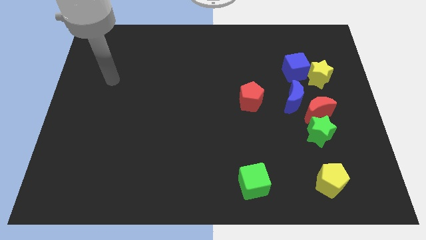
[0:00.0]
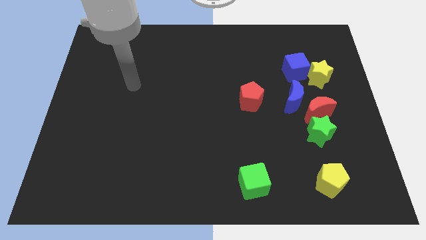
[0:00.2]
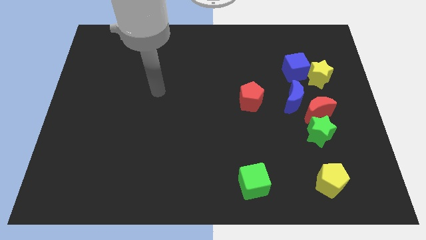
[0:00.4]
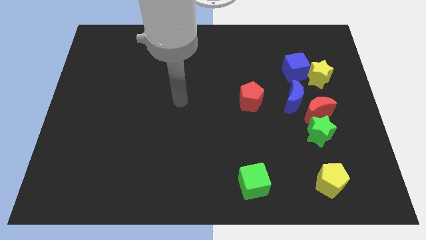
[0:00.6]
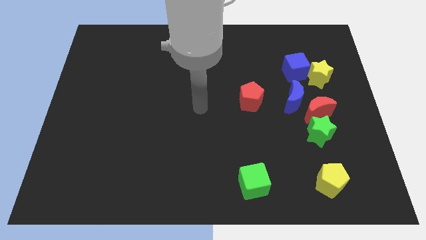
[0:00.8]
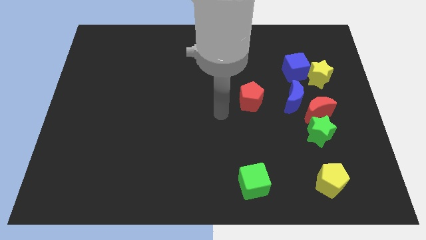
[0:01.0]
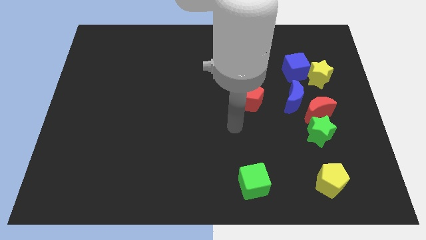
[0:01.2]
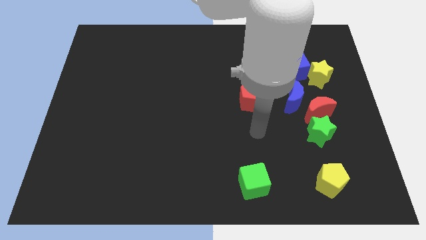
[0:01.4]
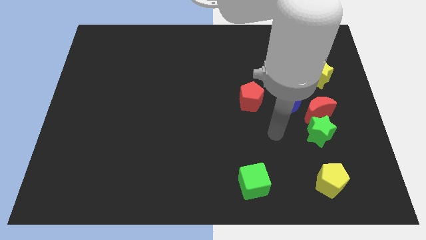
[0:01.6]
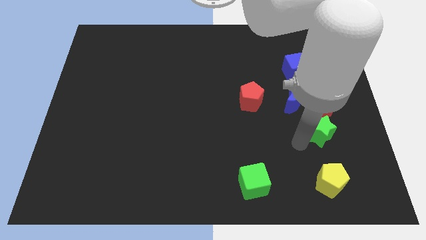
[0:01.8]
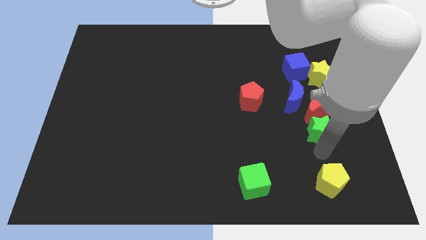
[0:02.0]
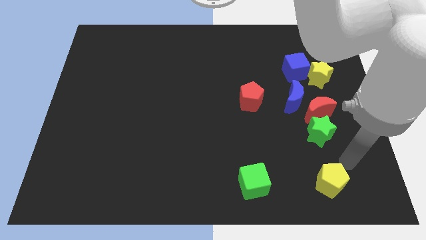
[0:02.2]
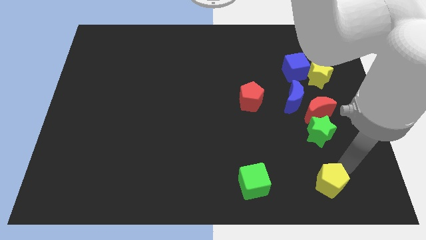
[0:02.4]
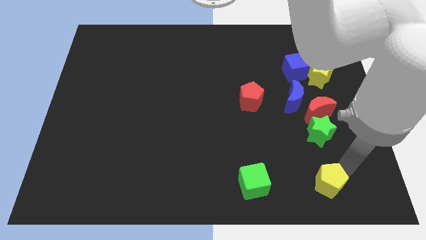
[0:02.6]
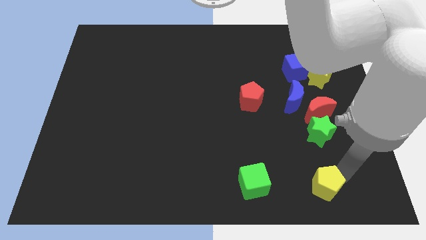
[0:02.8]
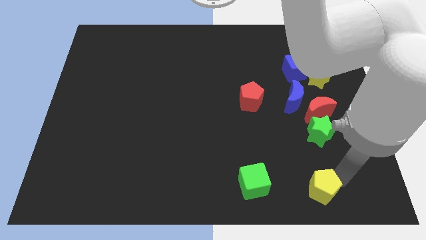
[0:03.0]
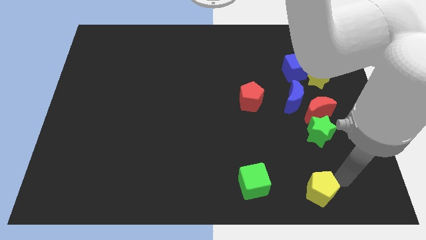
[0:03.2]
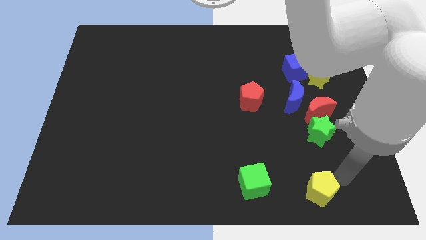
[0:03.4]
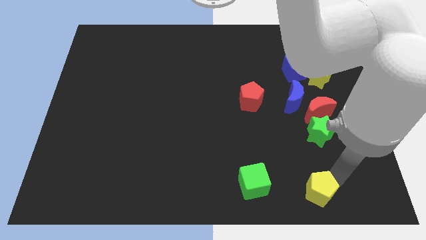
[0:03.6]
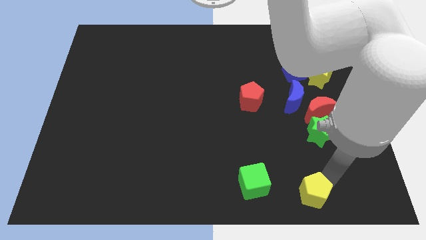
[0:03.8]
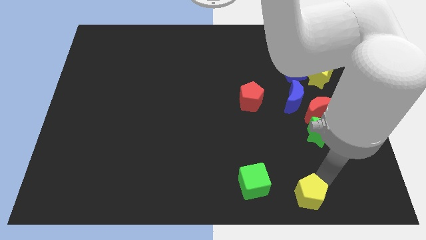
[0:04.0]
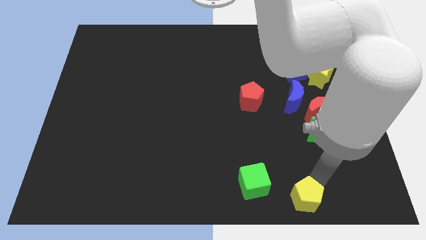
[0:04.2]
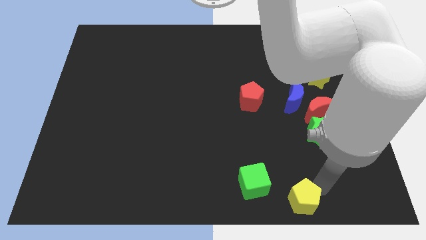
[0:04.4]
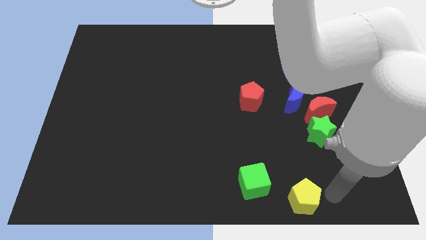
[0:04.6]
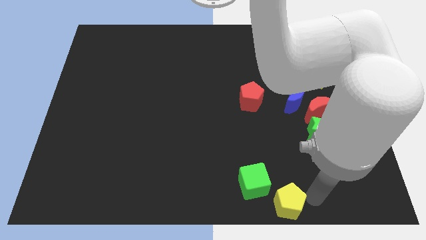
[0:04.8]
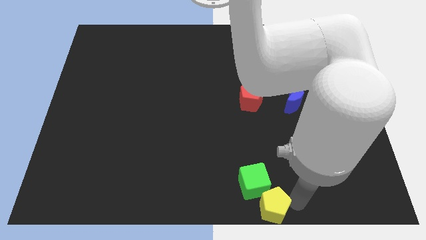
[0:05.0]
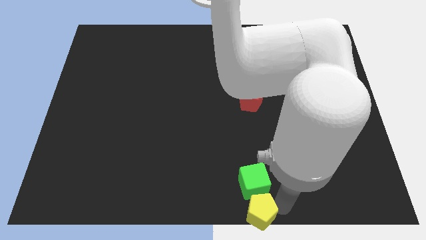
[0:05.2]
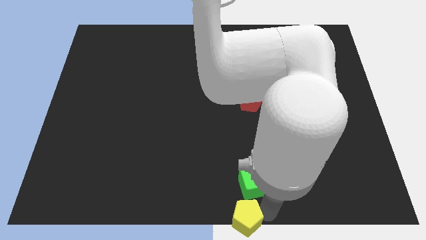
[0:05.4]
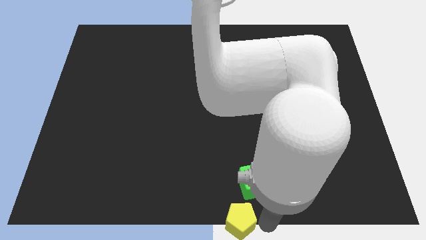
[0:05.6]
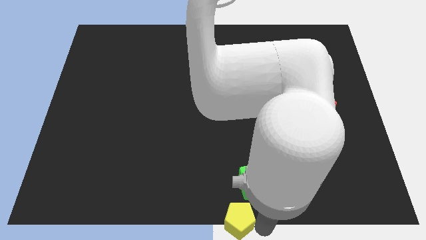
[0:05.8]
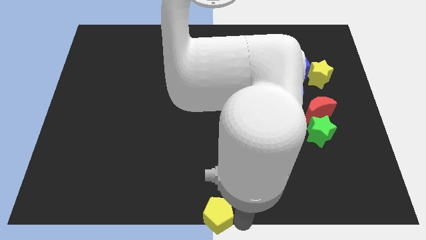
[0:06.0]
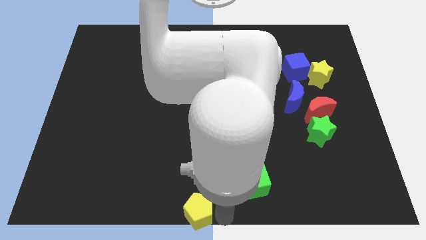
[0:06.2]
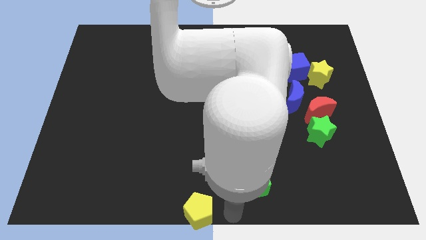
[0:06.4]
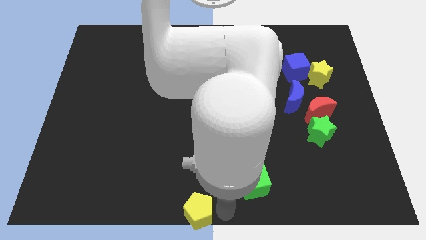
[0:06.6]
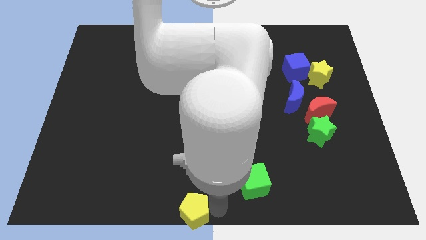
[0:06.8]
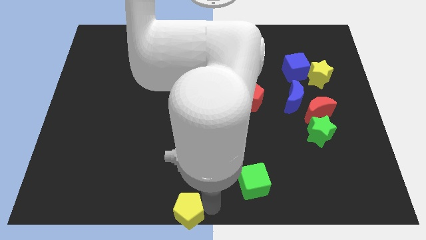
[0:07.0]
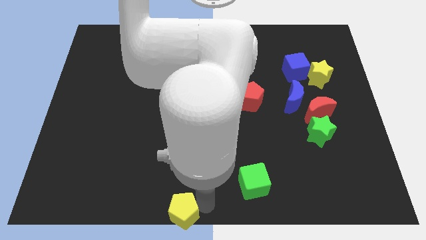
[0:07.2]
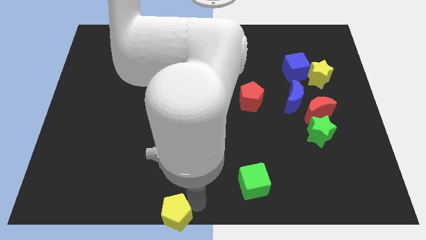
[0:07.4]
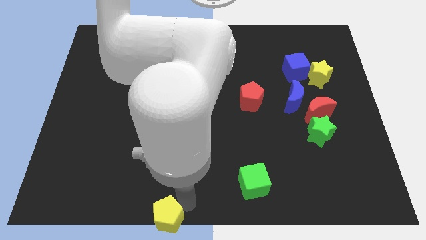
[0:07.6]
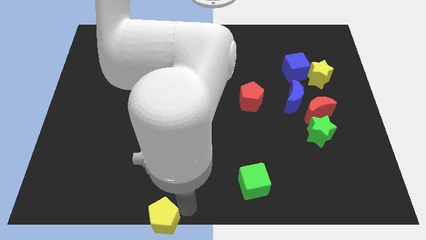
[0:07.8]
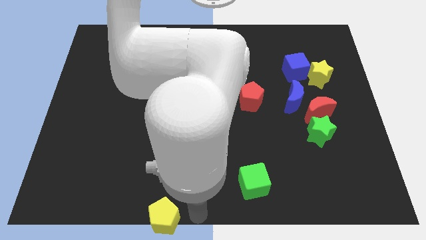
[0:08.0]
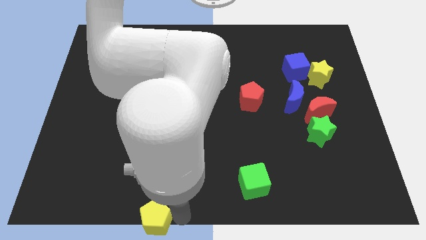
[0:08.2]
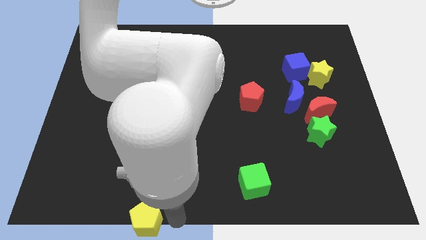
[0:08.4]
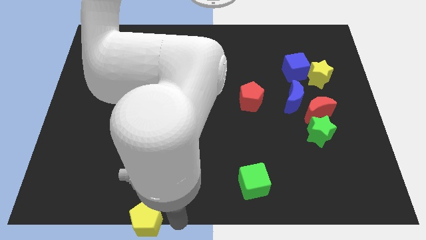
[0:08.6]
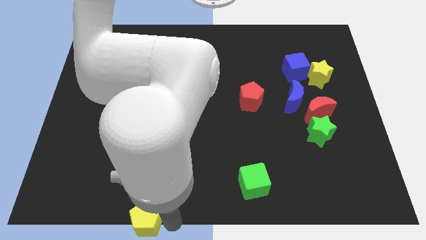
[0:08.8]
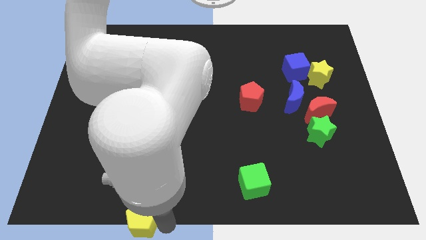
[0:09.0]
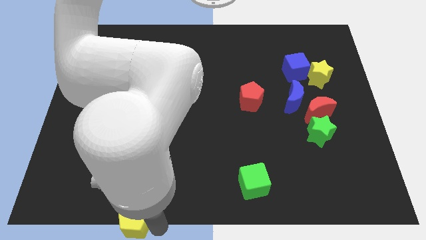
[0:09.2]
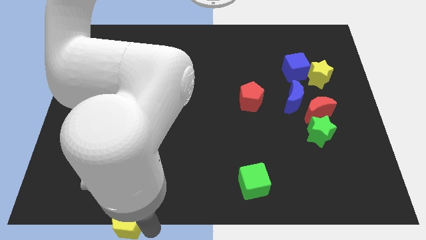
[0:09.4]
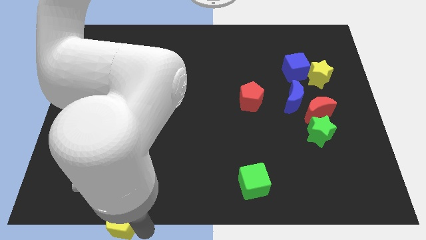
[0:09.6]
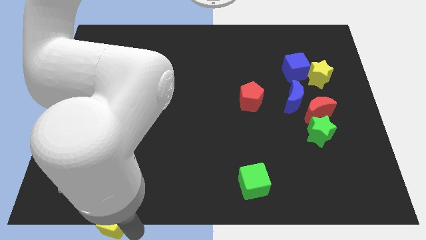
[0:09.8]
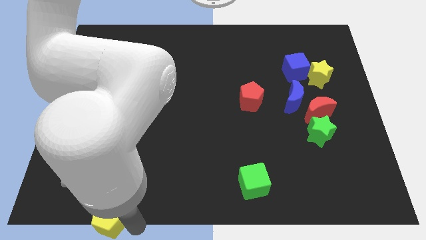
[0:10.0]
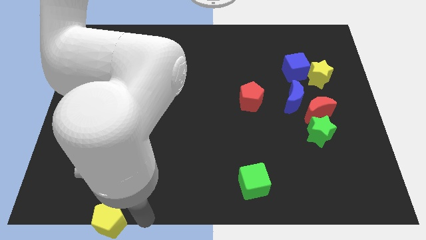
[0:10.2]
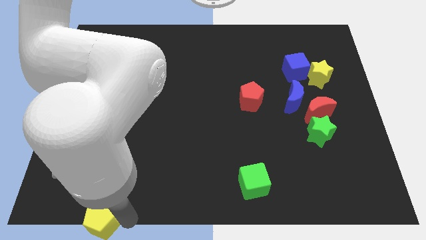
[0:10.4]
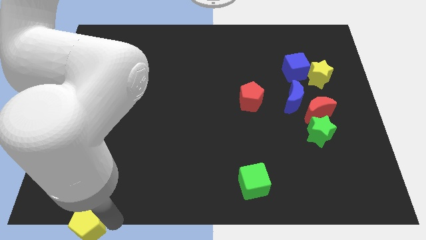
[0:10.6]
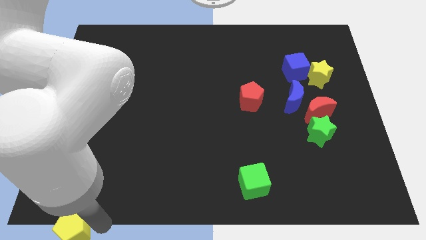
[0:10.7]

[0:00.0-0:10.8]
move the yellow pentagon to the bottom left of the board
